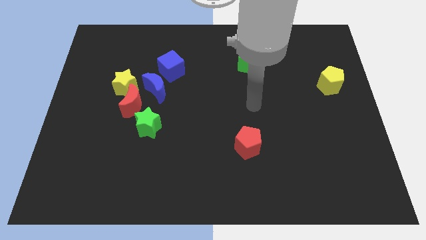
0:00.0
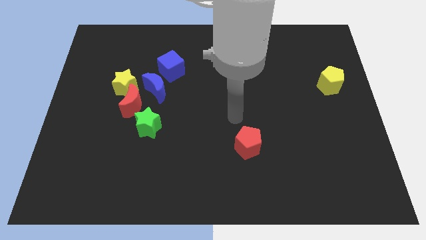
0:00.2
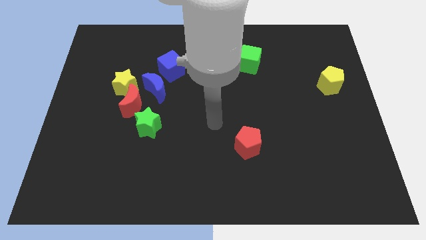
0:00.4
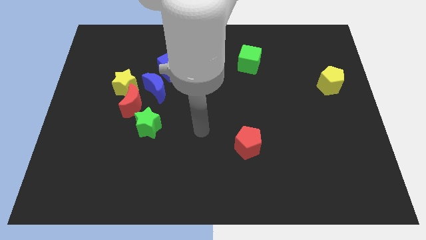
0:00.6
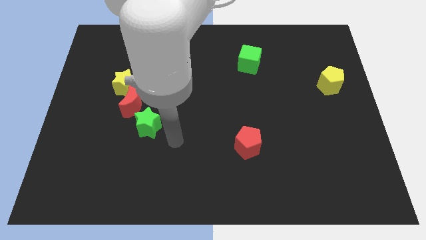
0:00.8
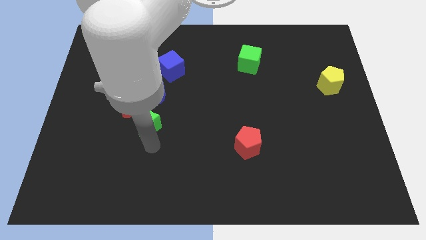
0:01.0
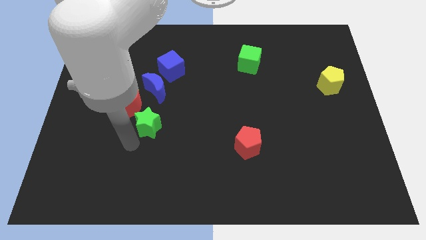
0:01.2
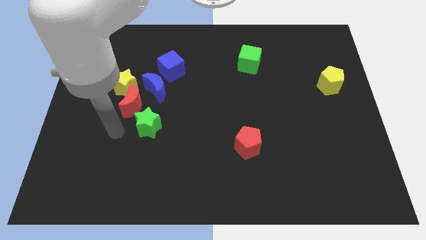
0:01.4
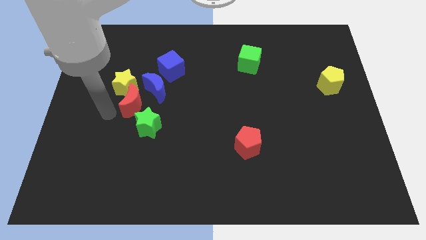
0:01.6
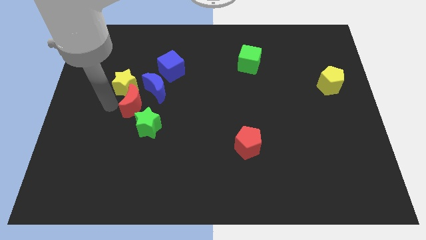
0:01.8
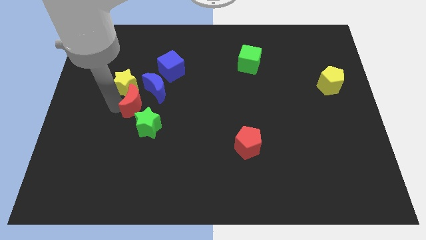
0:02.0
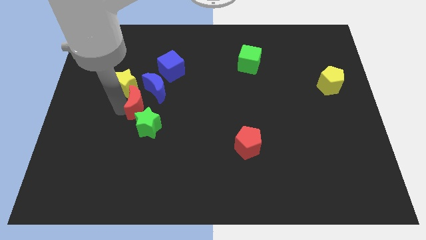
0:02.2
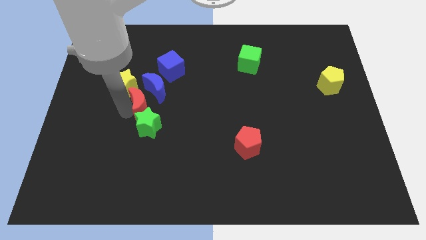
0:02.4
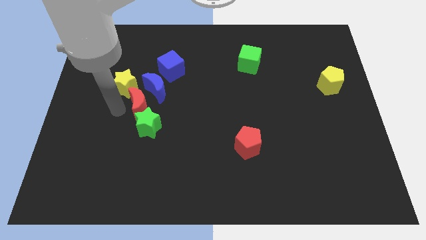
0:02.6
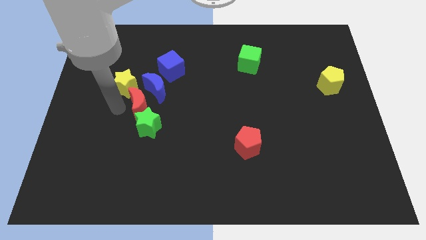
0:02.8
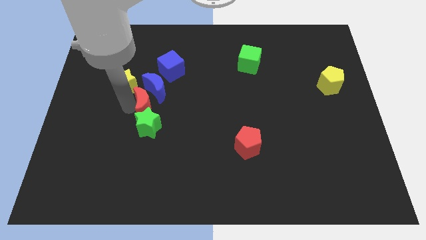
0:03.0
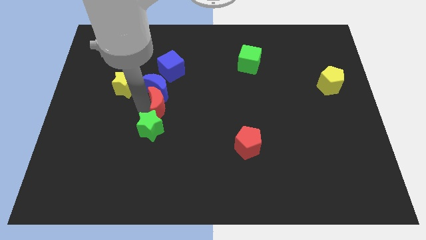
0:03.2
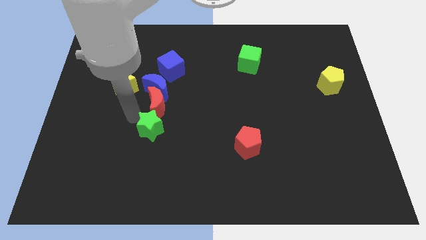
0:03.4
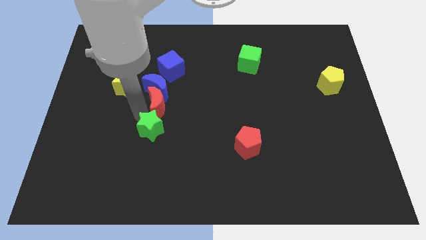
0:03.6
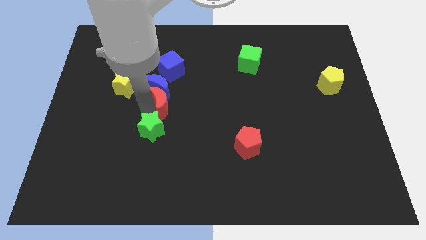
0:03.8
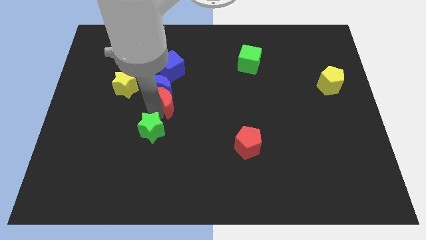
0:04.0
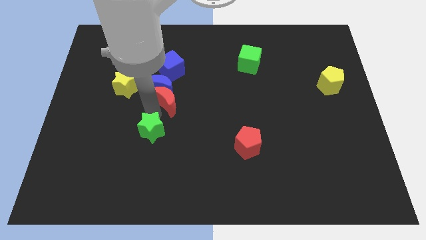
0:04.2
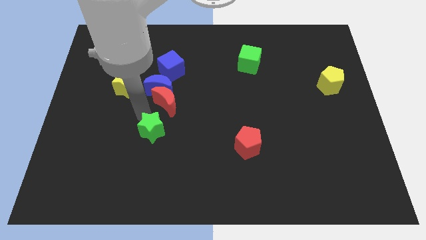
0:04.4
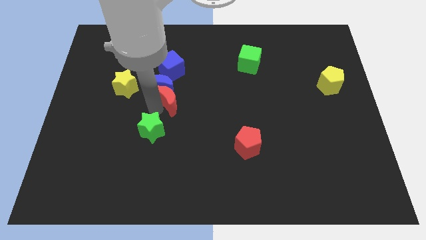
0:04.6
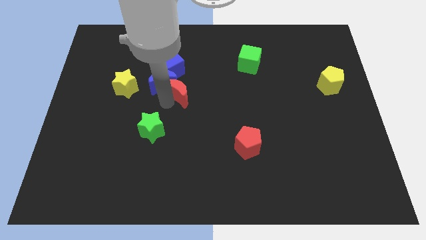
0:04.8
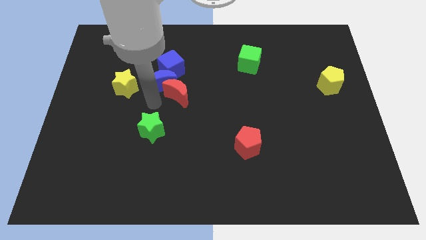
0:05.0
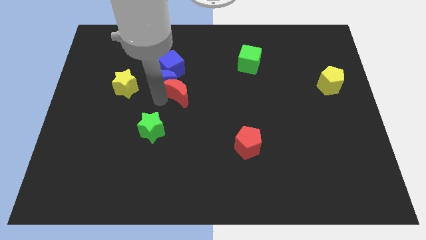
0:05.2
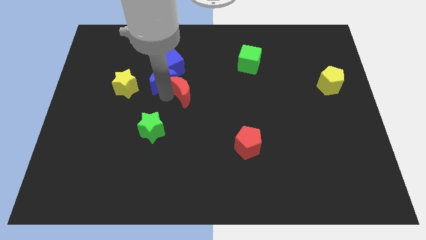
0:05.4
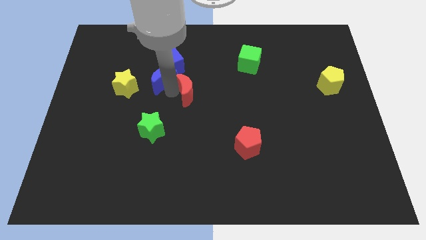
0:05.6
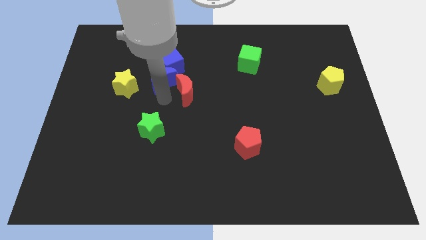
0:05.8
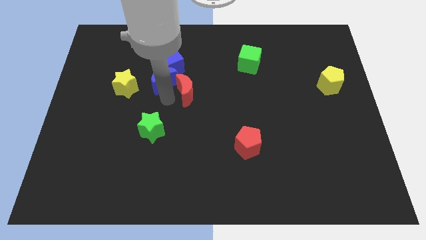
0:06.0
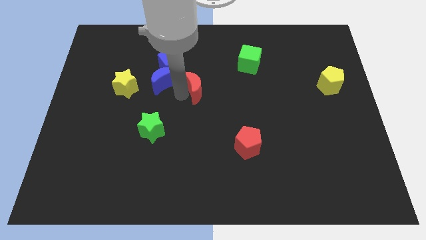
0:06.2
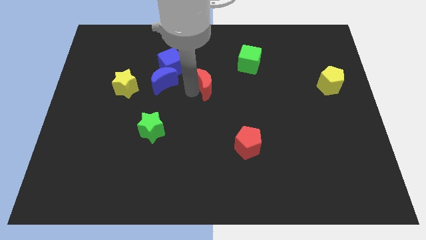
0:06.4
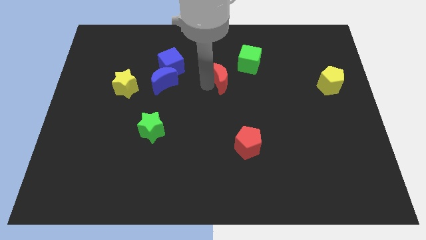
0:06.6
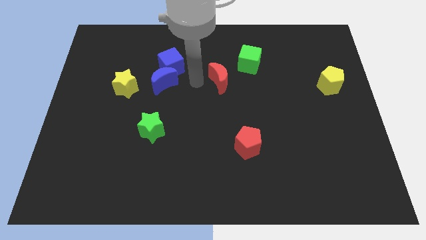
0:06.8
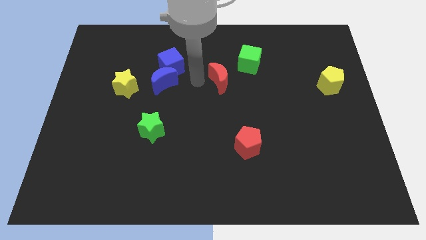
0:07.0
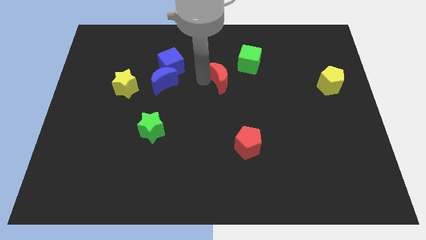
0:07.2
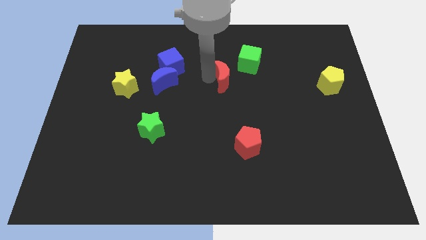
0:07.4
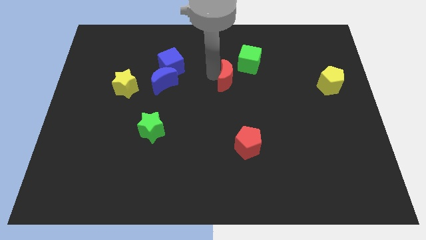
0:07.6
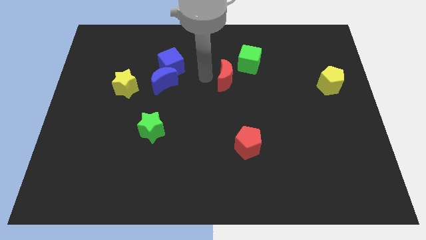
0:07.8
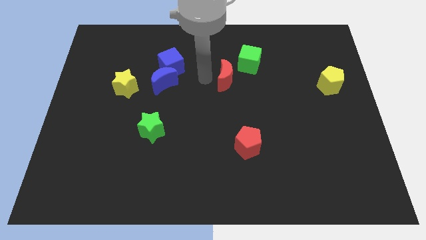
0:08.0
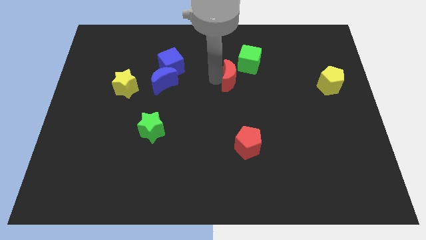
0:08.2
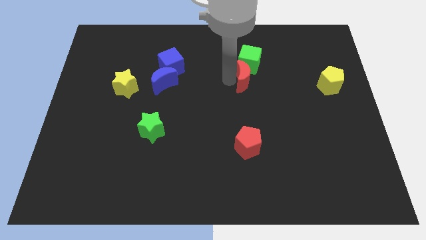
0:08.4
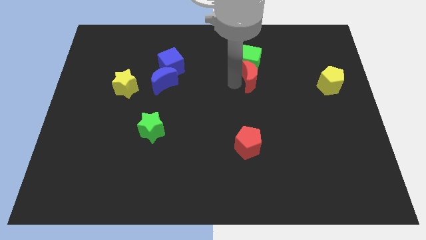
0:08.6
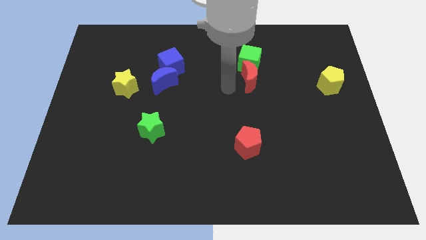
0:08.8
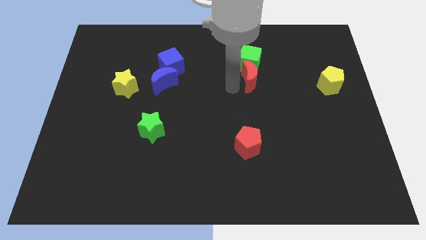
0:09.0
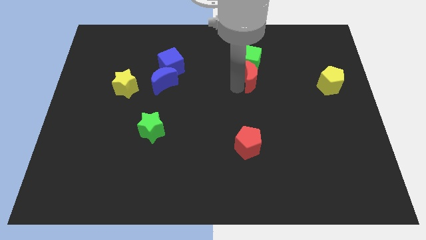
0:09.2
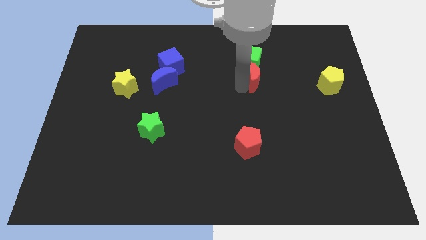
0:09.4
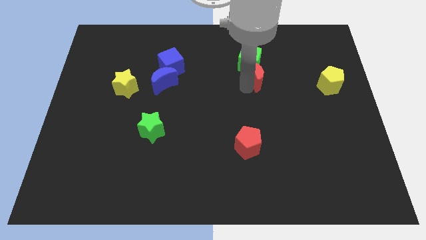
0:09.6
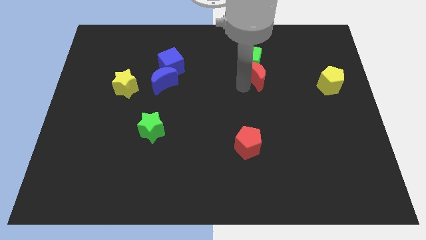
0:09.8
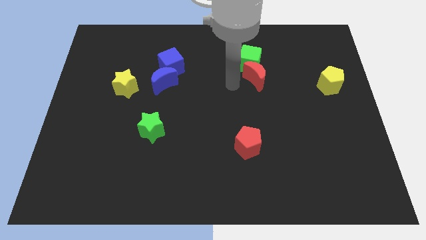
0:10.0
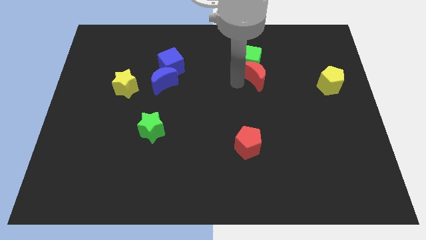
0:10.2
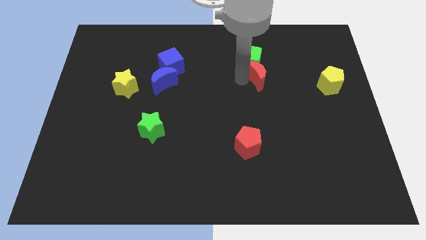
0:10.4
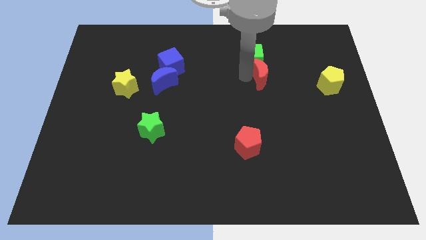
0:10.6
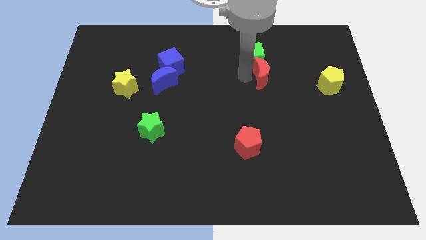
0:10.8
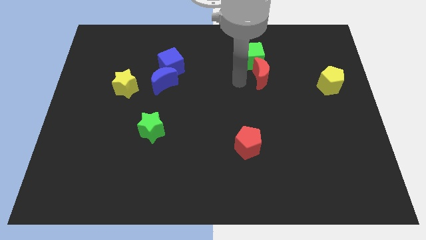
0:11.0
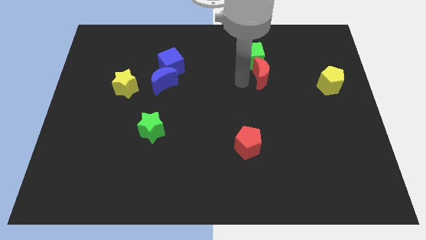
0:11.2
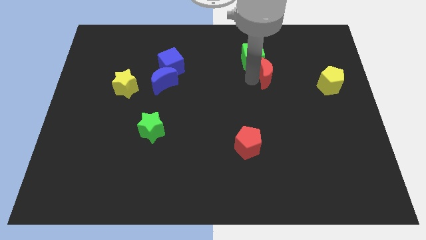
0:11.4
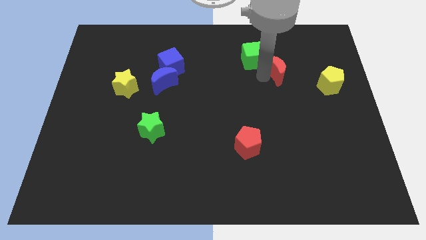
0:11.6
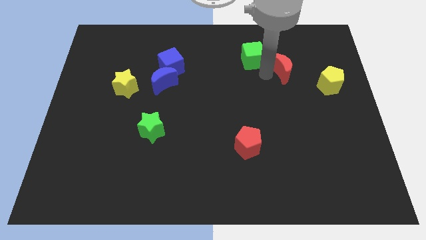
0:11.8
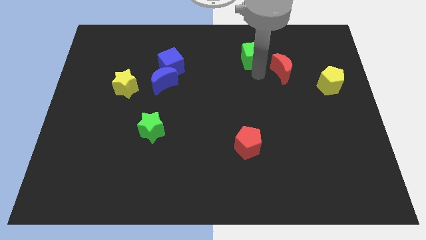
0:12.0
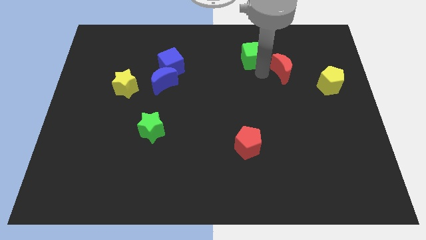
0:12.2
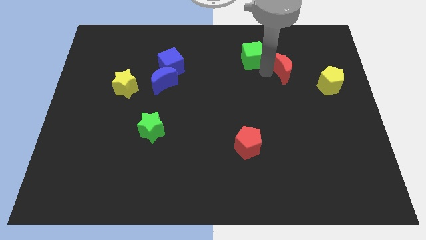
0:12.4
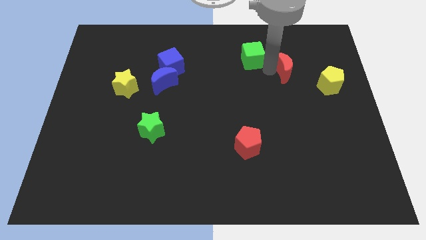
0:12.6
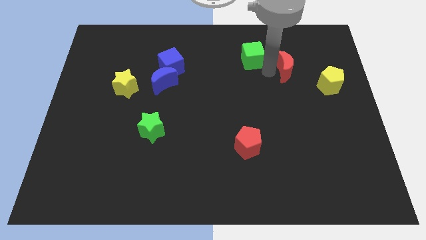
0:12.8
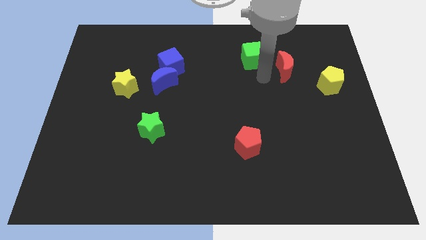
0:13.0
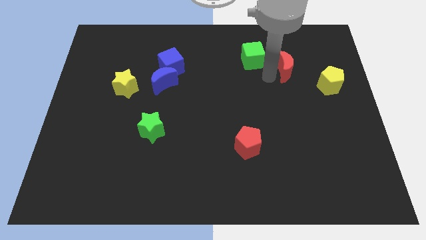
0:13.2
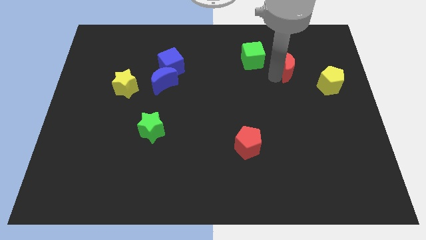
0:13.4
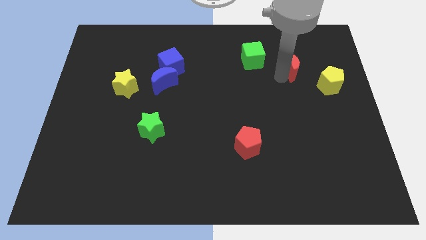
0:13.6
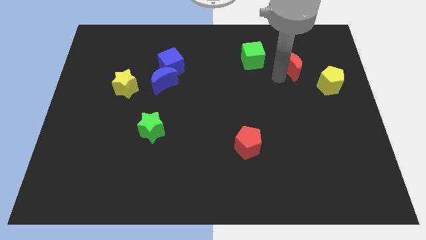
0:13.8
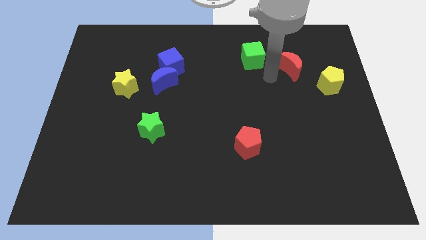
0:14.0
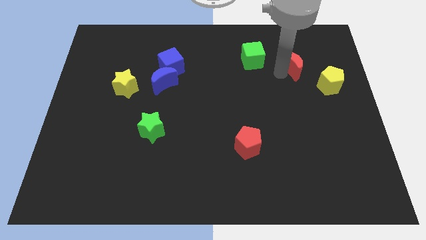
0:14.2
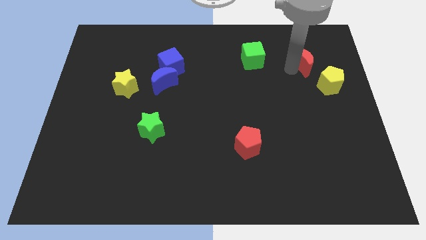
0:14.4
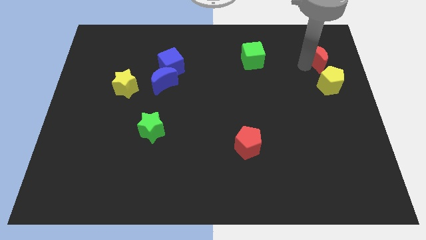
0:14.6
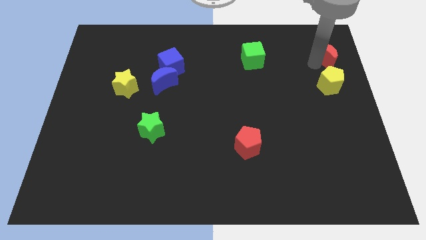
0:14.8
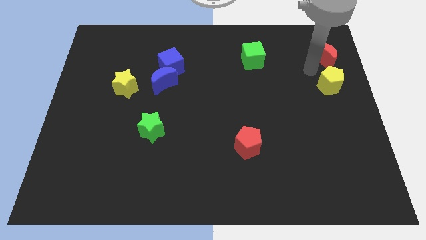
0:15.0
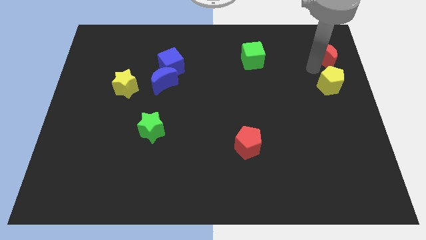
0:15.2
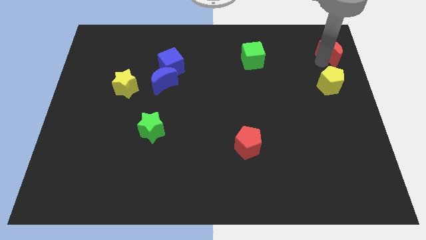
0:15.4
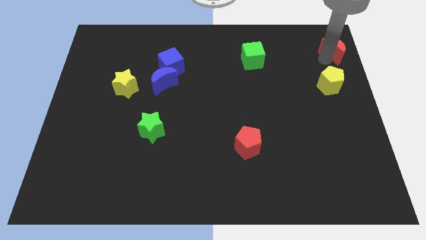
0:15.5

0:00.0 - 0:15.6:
push the red moon to the top right
